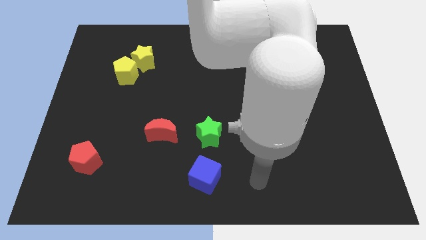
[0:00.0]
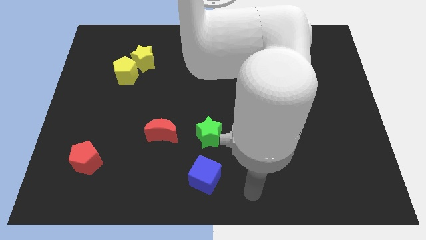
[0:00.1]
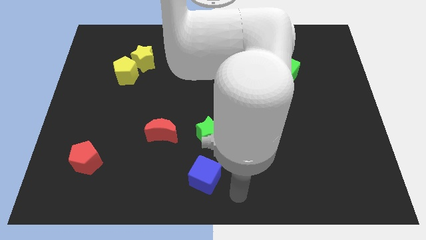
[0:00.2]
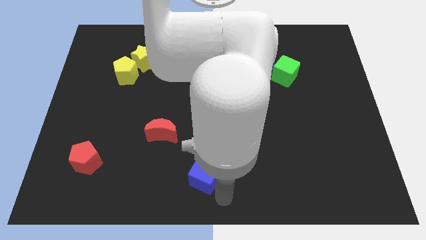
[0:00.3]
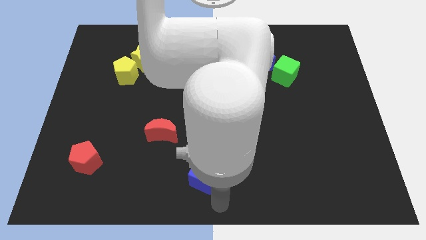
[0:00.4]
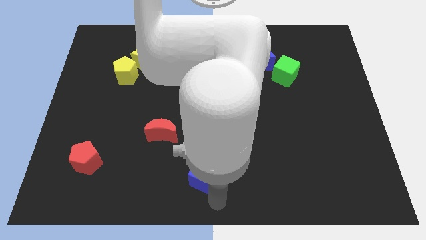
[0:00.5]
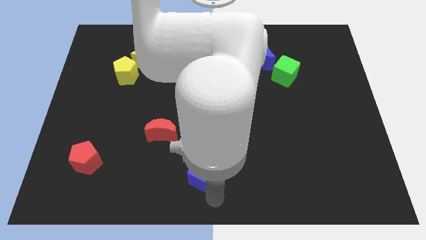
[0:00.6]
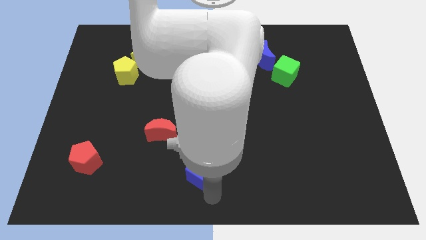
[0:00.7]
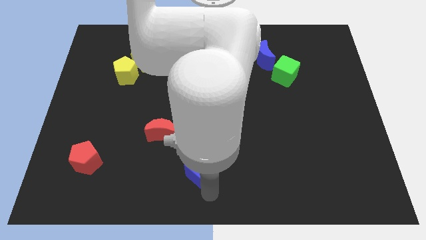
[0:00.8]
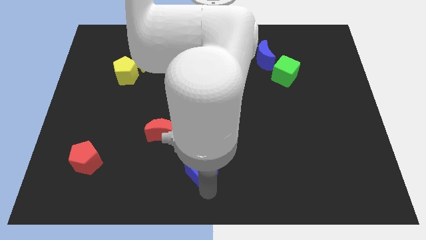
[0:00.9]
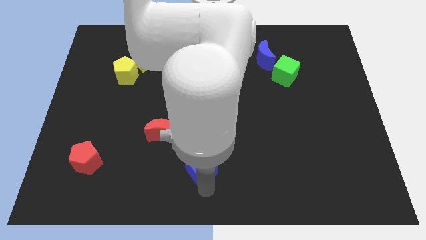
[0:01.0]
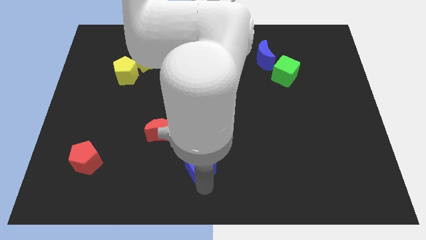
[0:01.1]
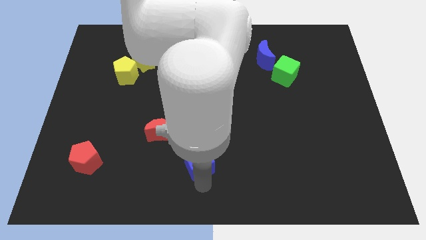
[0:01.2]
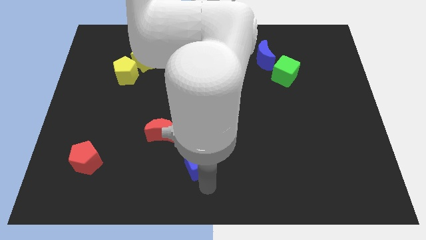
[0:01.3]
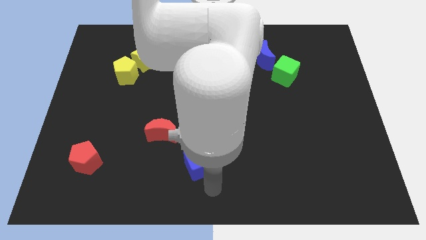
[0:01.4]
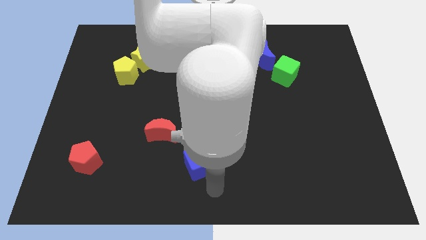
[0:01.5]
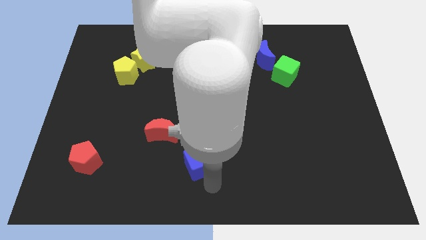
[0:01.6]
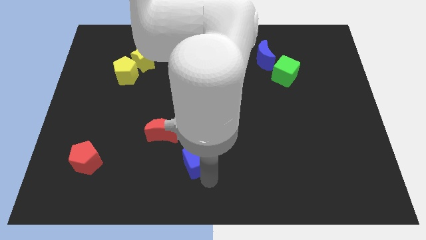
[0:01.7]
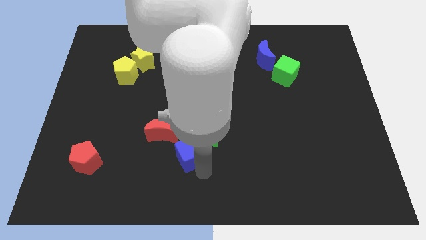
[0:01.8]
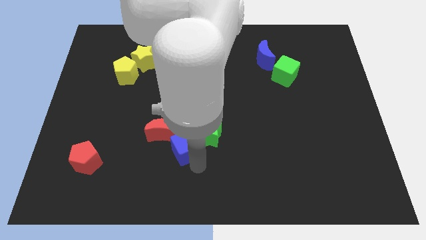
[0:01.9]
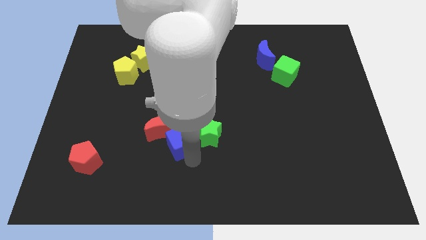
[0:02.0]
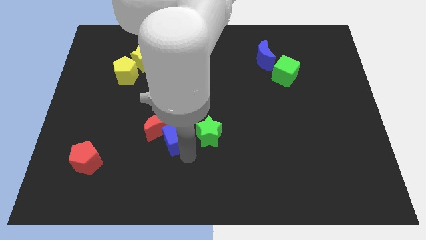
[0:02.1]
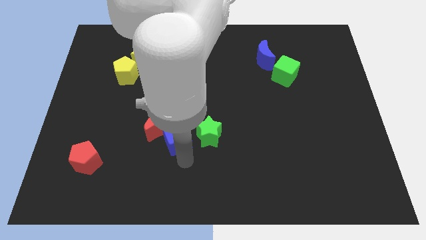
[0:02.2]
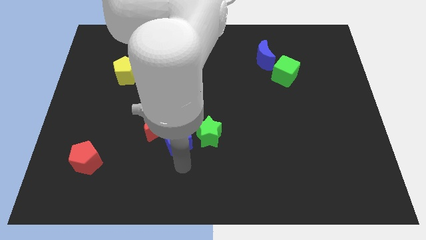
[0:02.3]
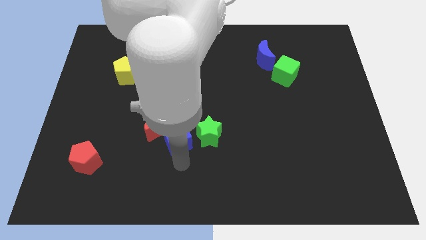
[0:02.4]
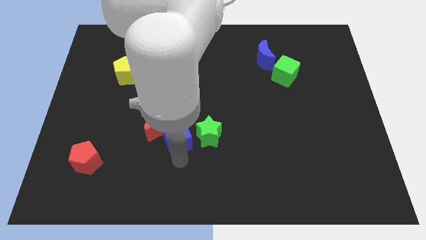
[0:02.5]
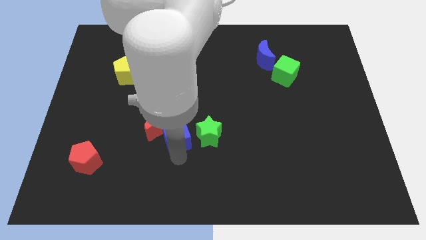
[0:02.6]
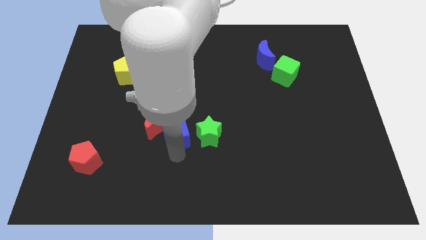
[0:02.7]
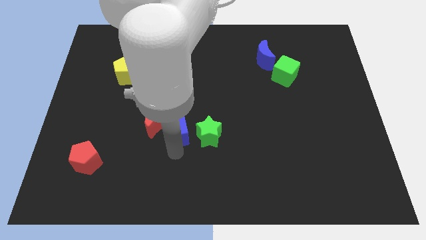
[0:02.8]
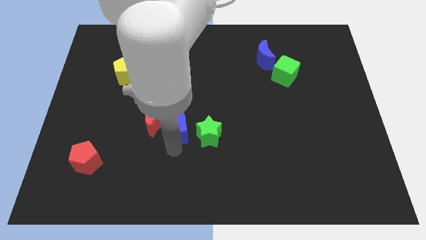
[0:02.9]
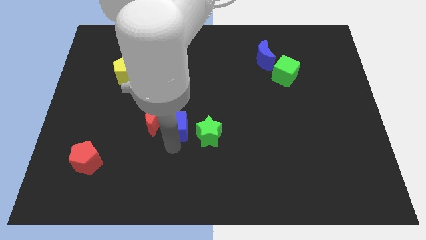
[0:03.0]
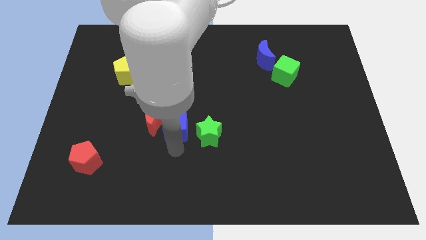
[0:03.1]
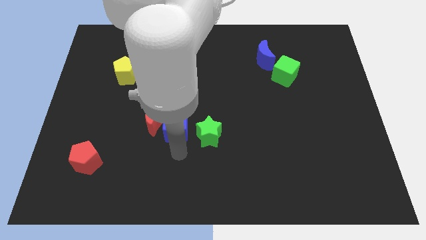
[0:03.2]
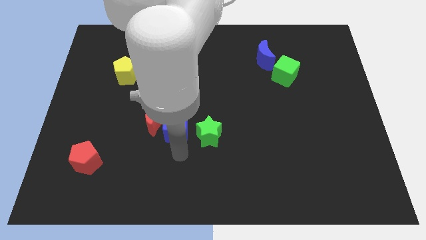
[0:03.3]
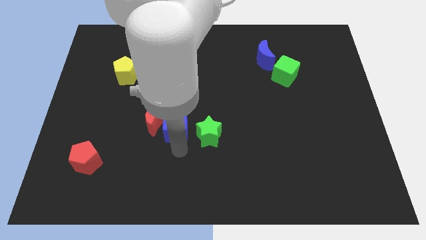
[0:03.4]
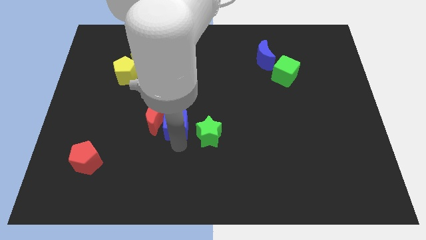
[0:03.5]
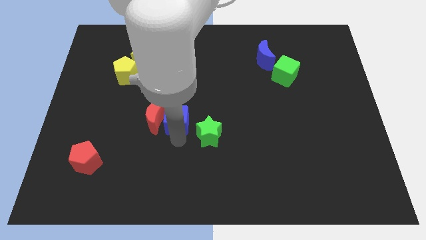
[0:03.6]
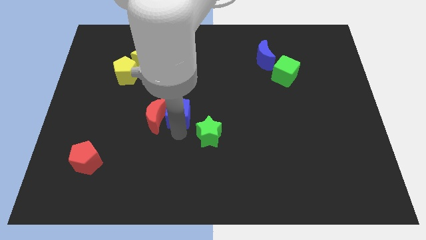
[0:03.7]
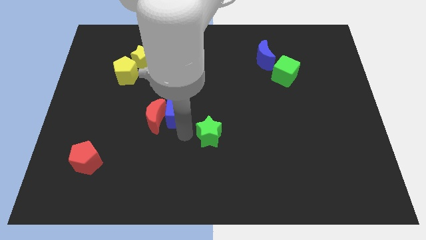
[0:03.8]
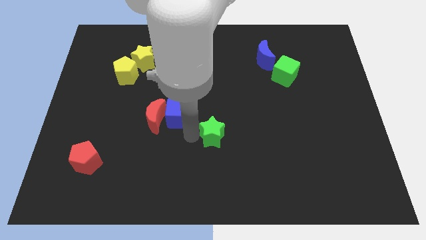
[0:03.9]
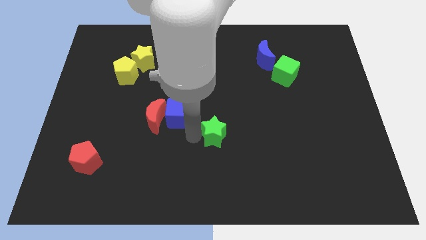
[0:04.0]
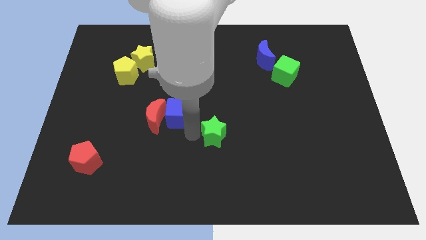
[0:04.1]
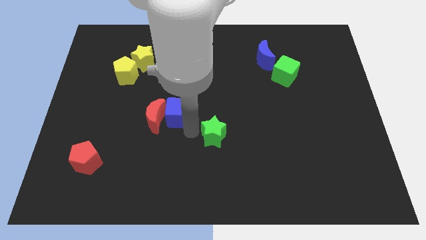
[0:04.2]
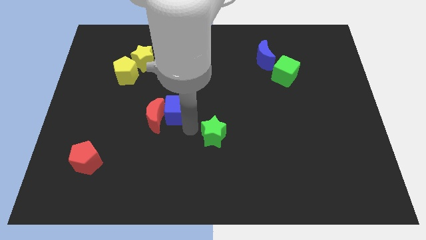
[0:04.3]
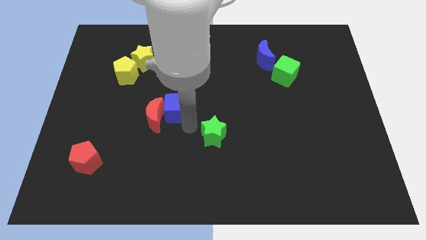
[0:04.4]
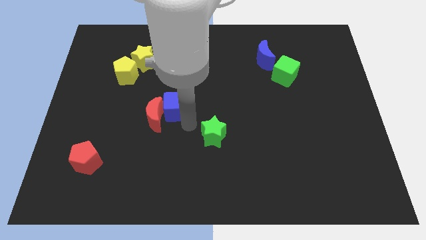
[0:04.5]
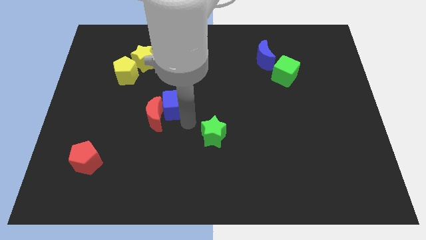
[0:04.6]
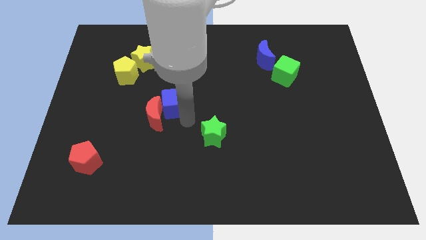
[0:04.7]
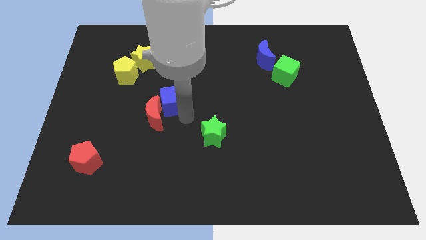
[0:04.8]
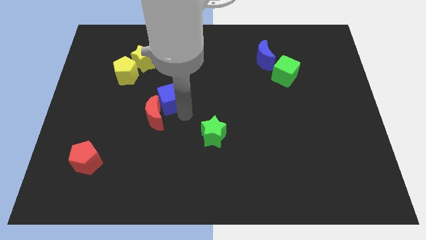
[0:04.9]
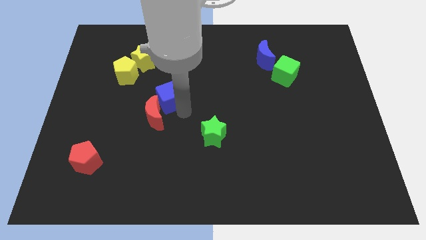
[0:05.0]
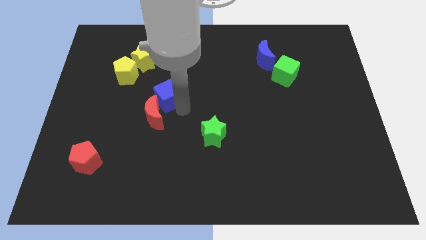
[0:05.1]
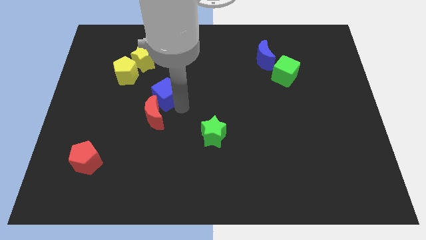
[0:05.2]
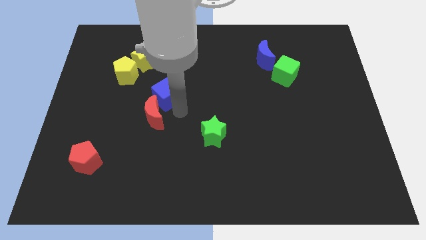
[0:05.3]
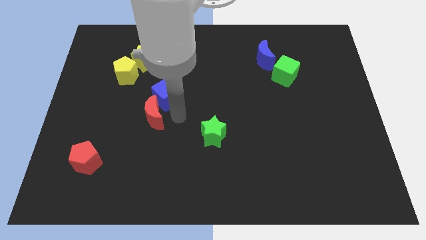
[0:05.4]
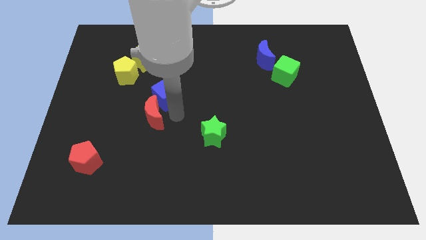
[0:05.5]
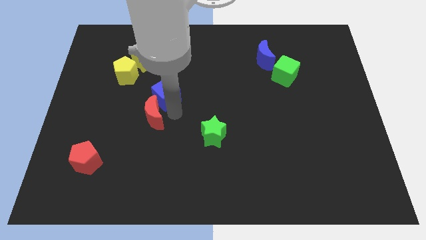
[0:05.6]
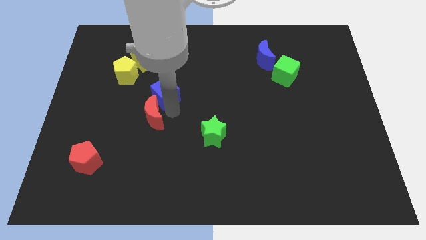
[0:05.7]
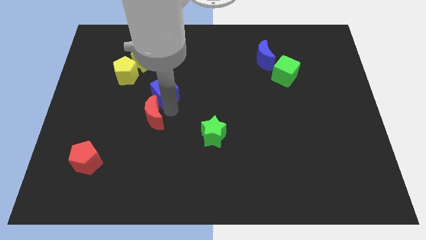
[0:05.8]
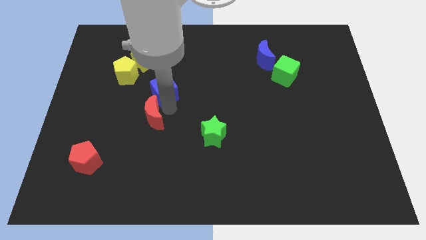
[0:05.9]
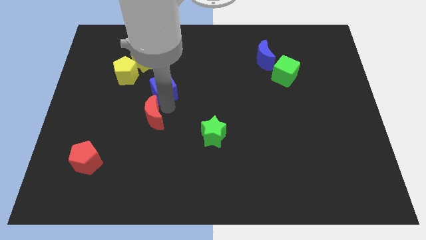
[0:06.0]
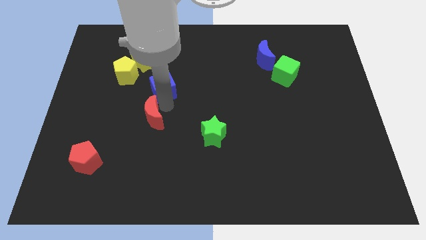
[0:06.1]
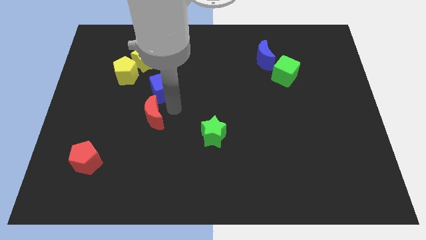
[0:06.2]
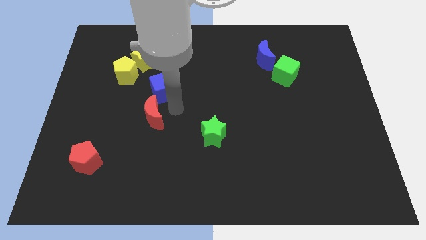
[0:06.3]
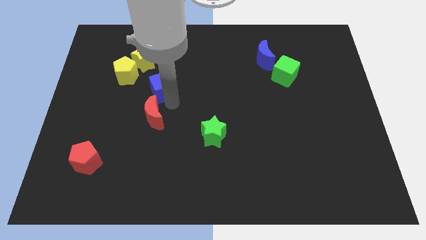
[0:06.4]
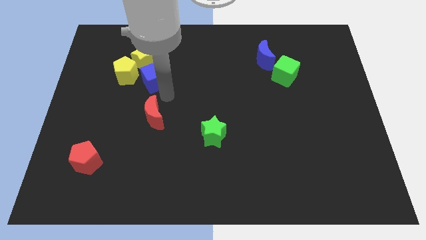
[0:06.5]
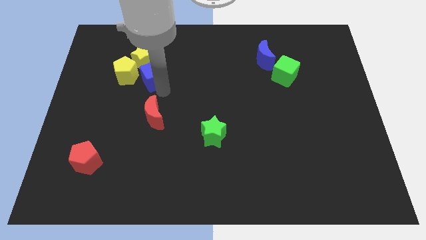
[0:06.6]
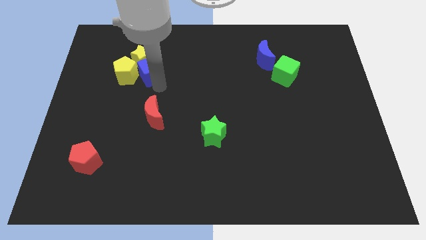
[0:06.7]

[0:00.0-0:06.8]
put the blue cube towards the yellow star

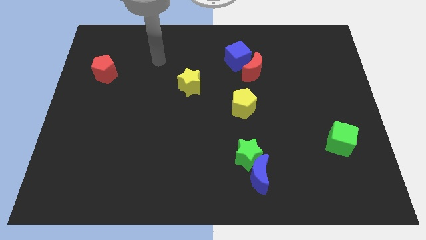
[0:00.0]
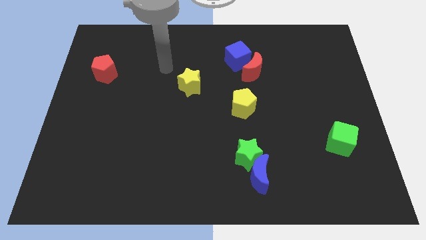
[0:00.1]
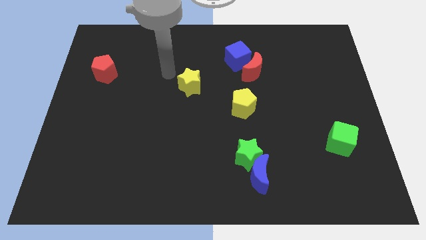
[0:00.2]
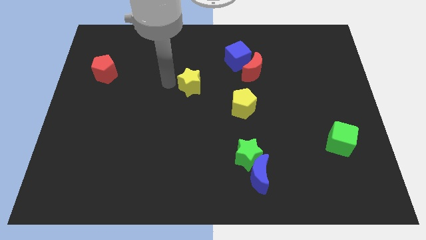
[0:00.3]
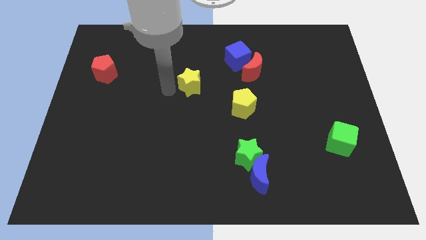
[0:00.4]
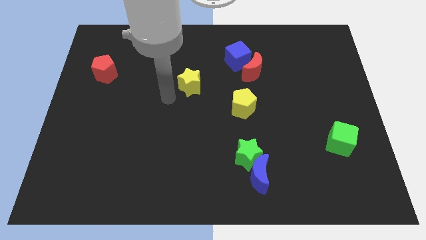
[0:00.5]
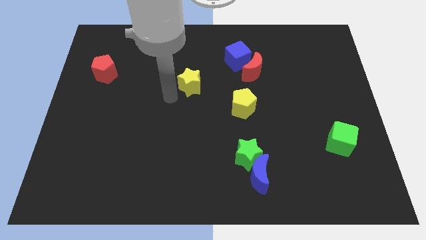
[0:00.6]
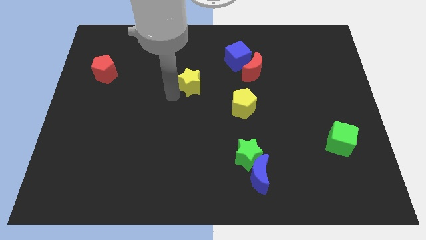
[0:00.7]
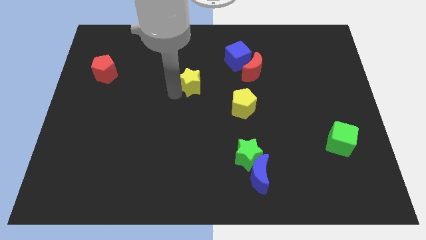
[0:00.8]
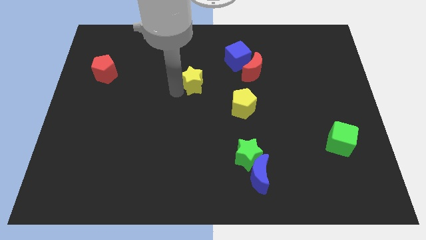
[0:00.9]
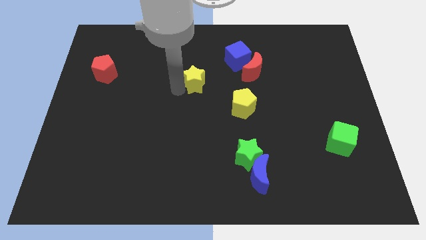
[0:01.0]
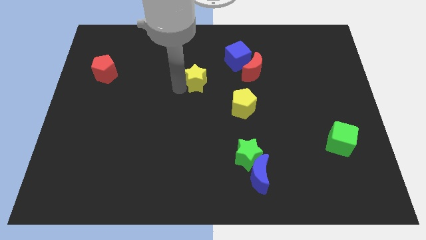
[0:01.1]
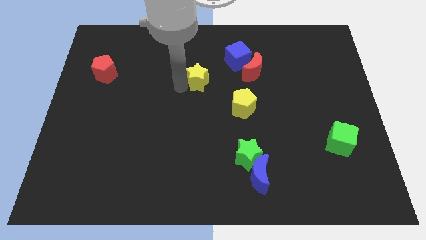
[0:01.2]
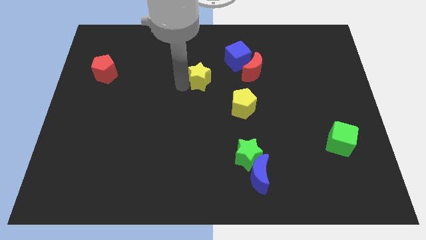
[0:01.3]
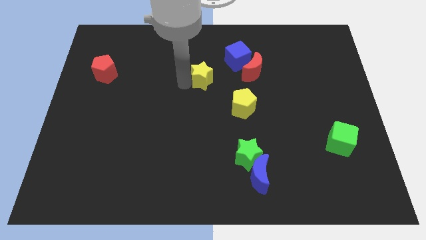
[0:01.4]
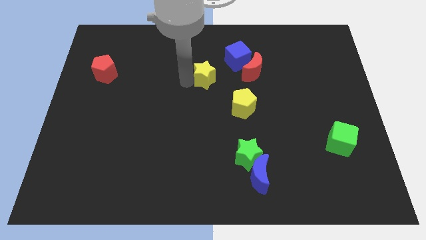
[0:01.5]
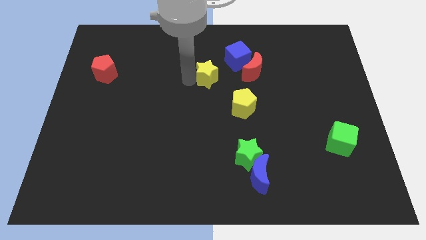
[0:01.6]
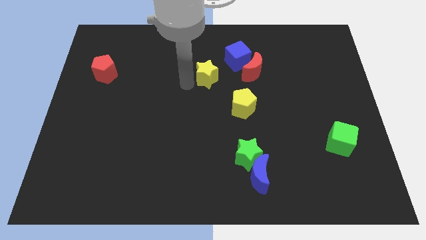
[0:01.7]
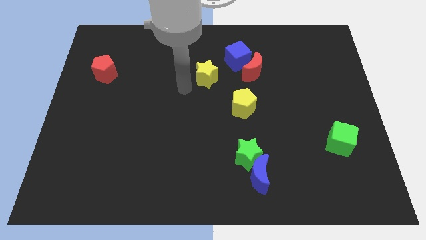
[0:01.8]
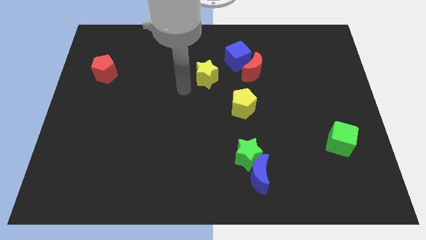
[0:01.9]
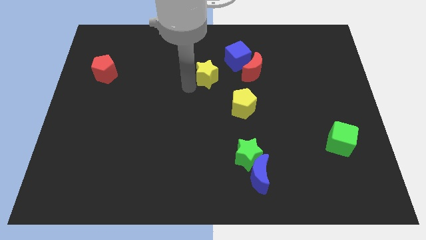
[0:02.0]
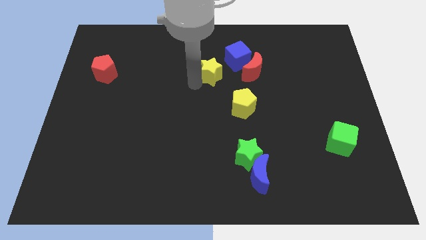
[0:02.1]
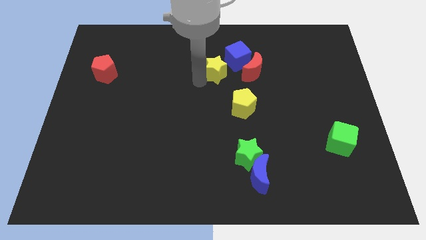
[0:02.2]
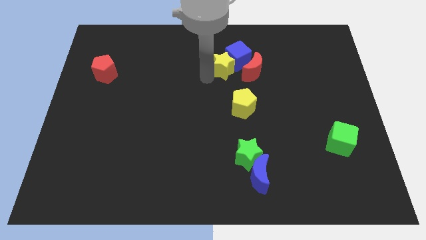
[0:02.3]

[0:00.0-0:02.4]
slide the yellow star next to the blue cube
